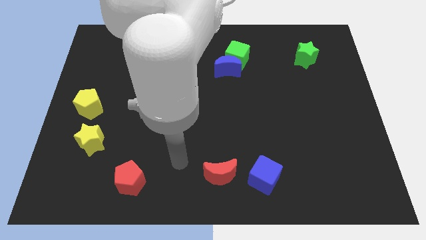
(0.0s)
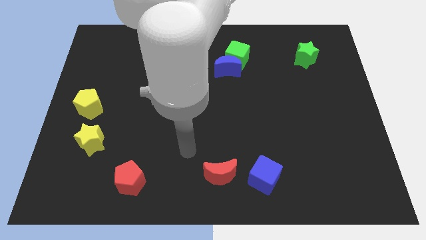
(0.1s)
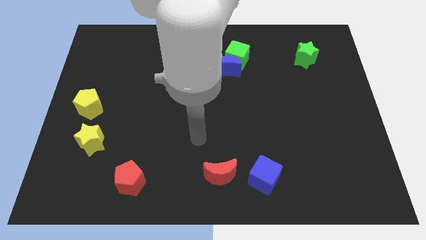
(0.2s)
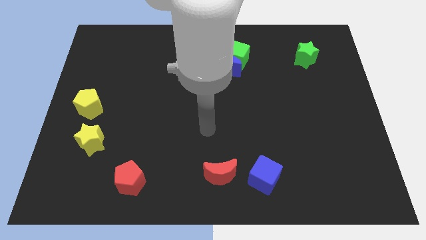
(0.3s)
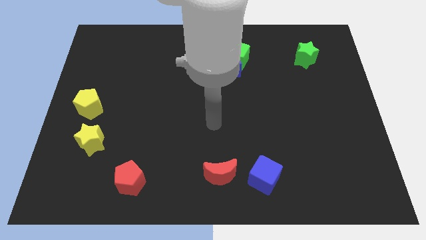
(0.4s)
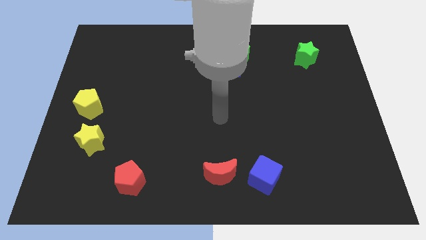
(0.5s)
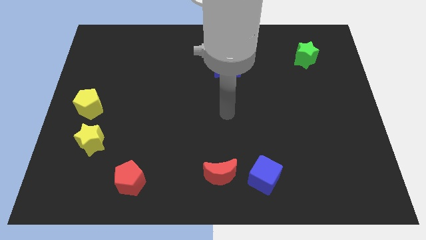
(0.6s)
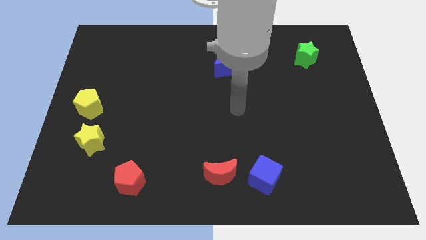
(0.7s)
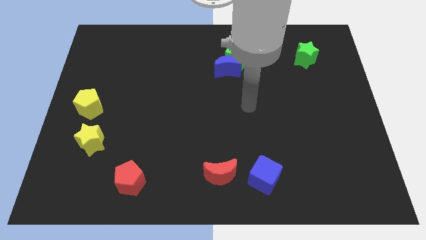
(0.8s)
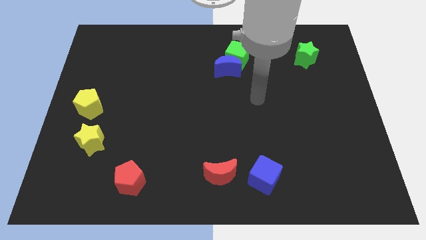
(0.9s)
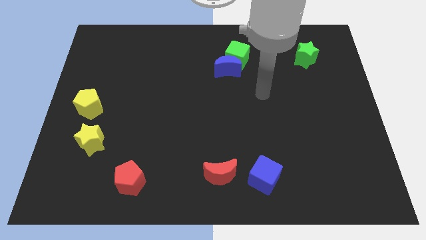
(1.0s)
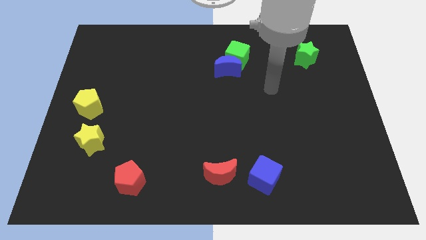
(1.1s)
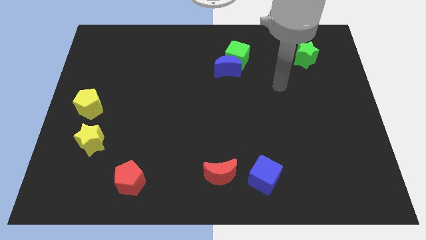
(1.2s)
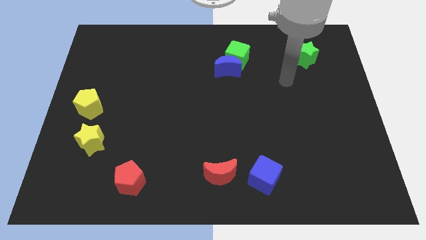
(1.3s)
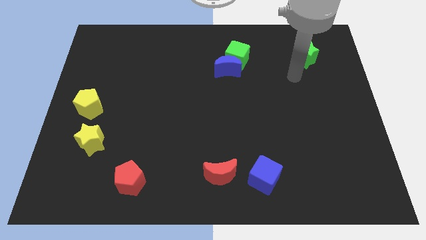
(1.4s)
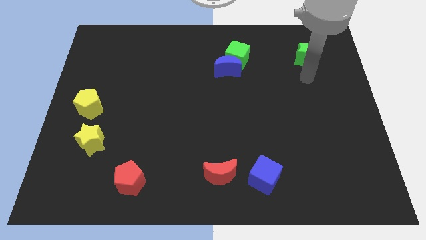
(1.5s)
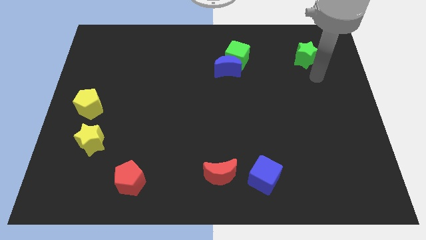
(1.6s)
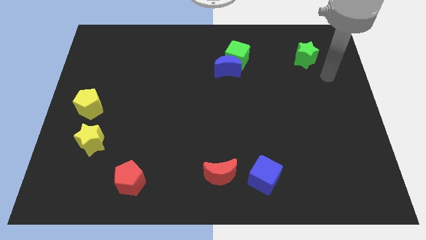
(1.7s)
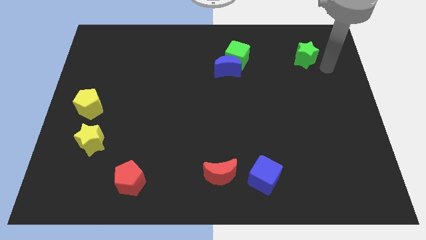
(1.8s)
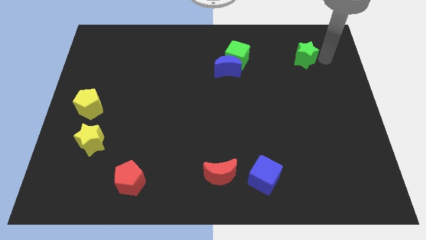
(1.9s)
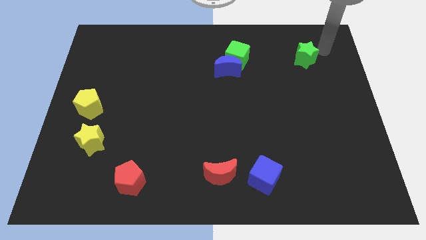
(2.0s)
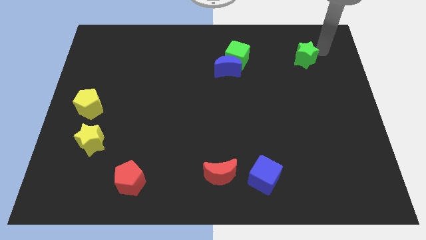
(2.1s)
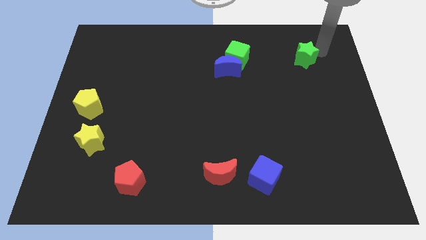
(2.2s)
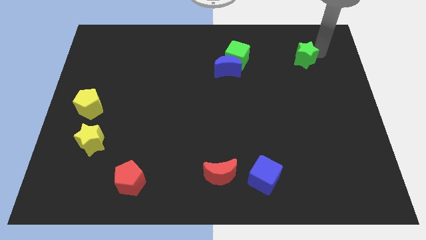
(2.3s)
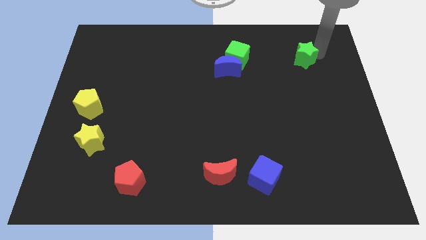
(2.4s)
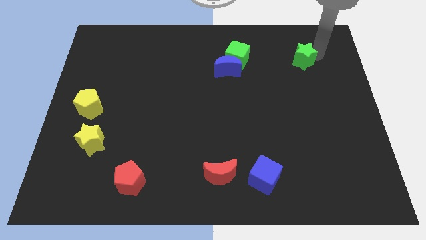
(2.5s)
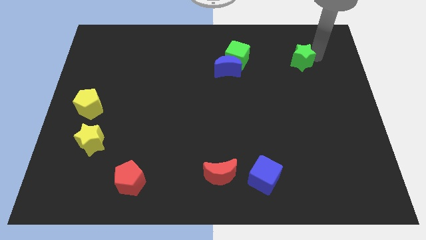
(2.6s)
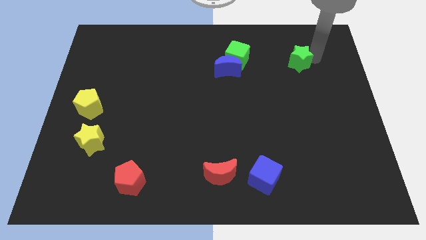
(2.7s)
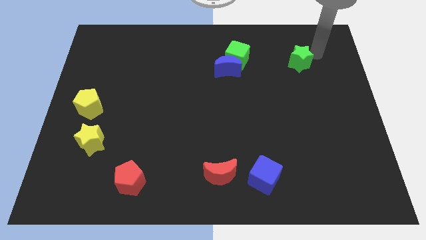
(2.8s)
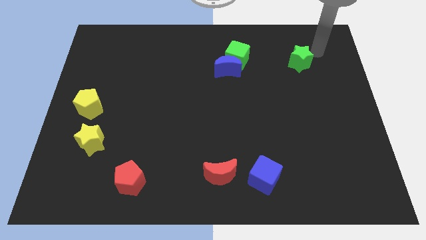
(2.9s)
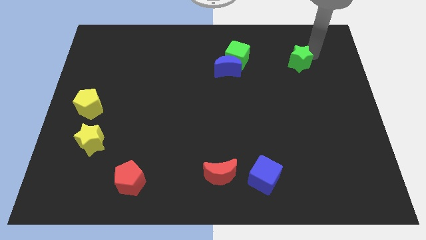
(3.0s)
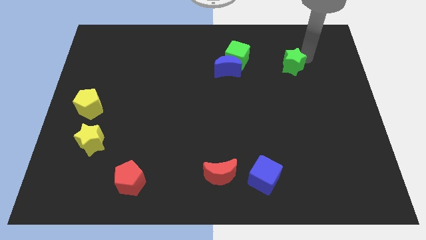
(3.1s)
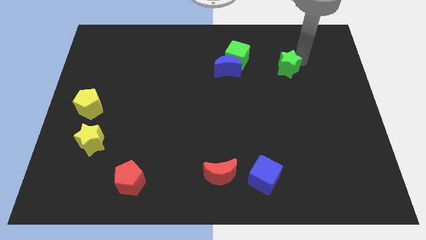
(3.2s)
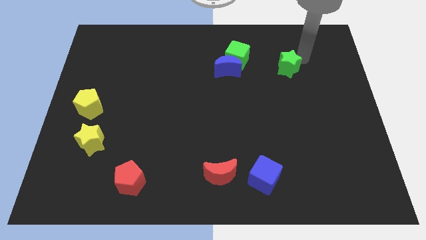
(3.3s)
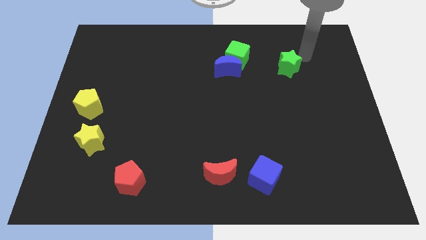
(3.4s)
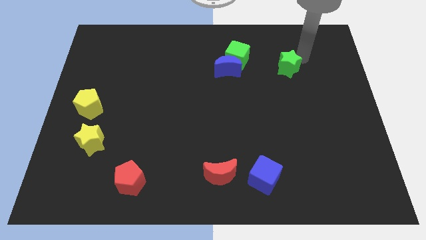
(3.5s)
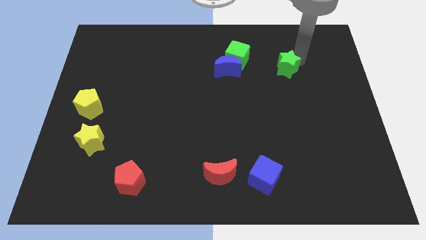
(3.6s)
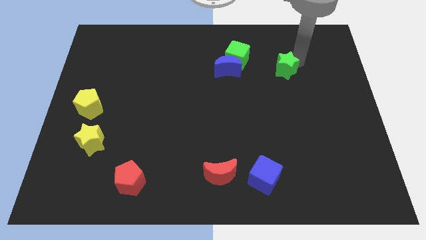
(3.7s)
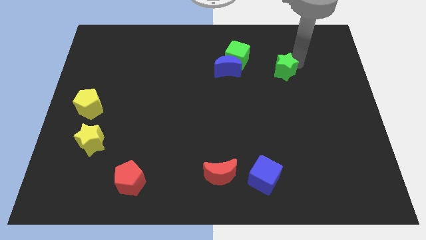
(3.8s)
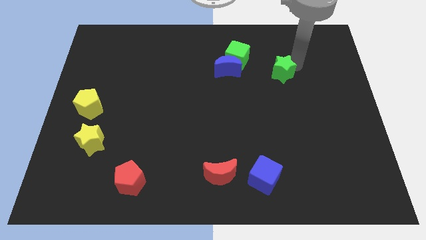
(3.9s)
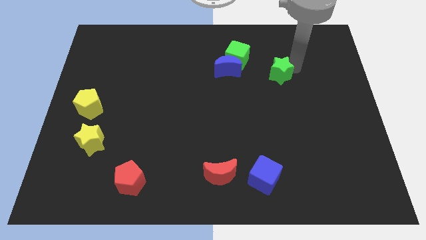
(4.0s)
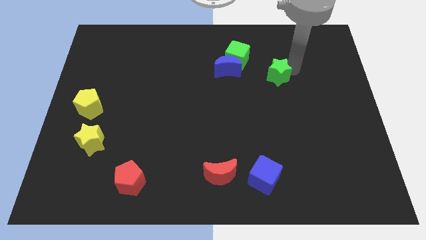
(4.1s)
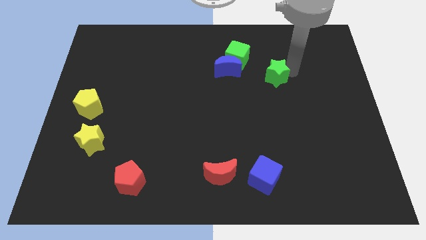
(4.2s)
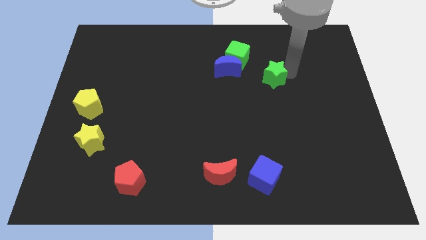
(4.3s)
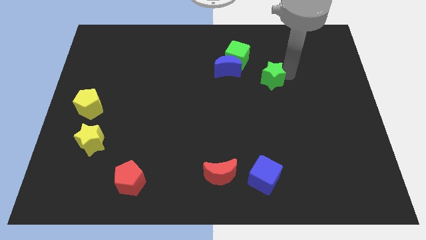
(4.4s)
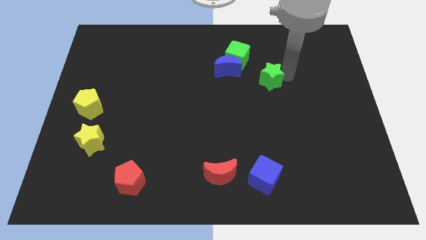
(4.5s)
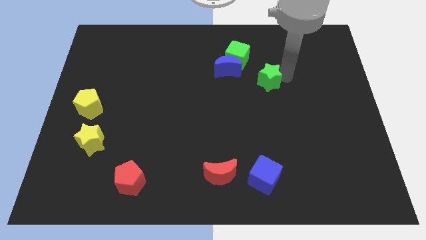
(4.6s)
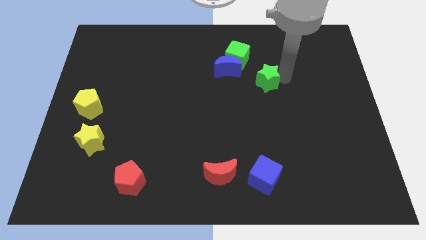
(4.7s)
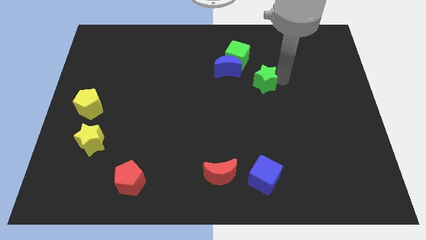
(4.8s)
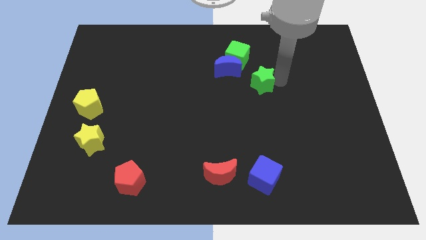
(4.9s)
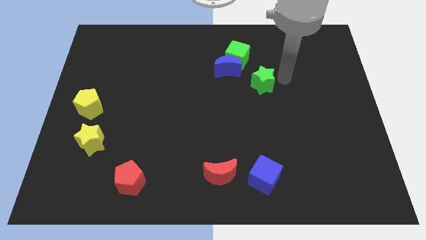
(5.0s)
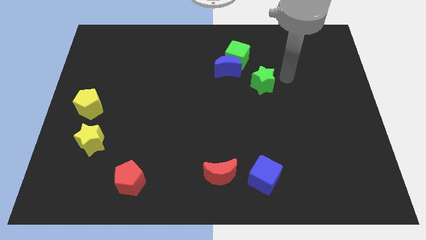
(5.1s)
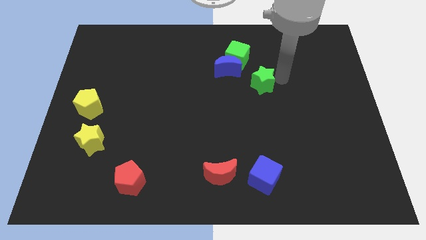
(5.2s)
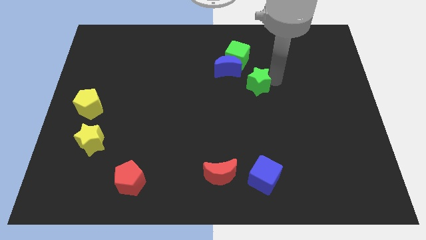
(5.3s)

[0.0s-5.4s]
push the green star below the green cube

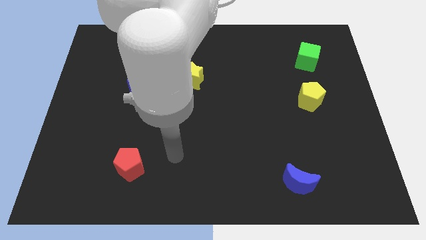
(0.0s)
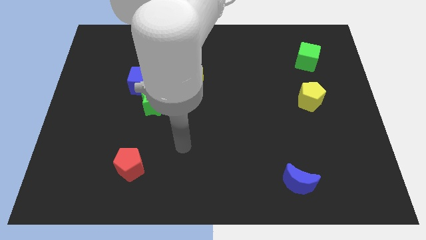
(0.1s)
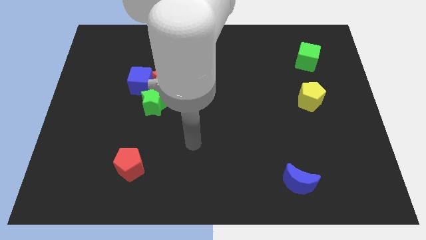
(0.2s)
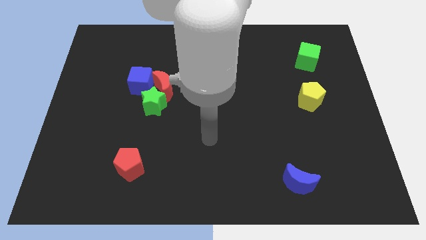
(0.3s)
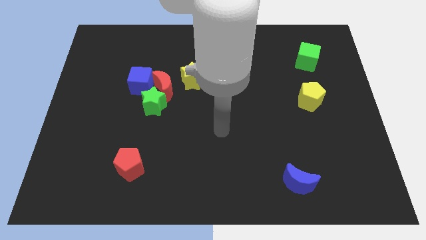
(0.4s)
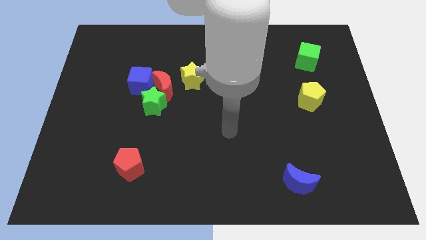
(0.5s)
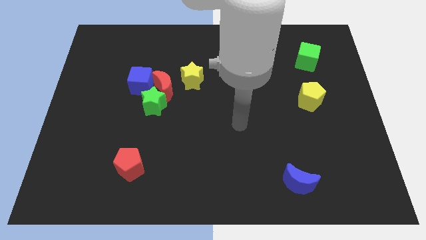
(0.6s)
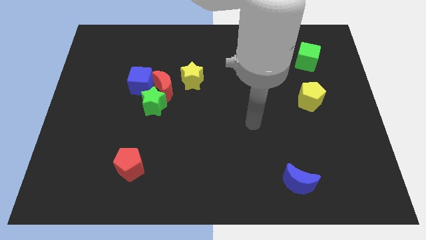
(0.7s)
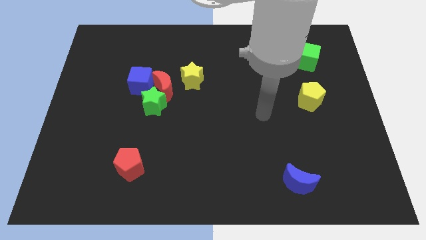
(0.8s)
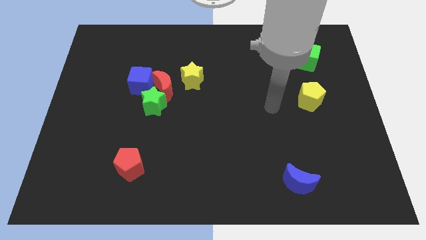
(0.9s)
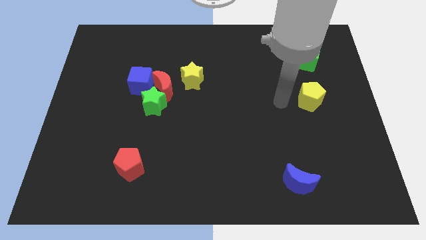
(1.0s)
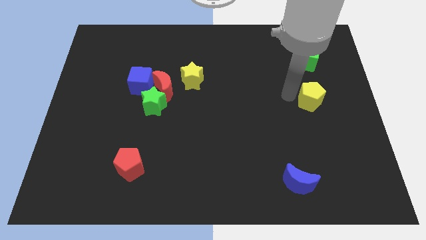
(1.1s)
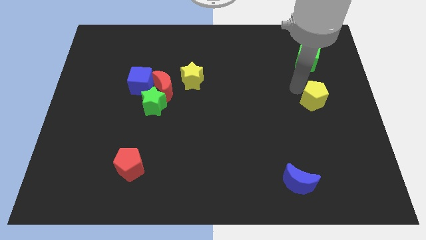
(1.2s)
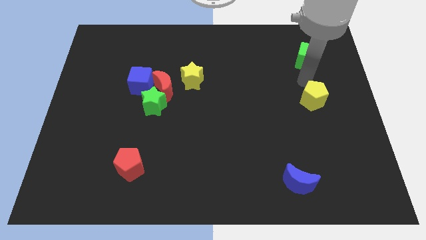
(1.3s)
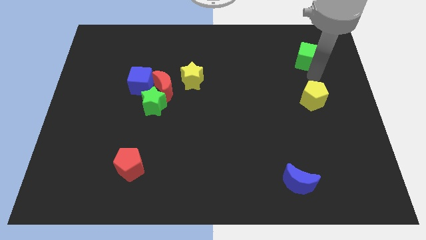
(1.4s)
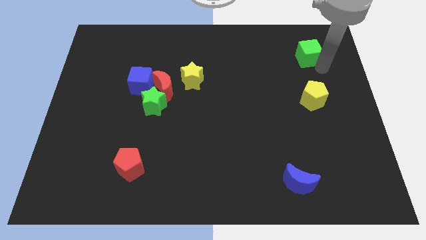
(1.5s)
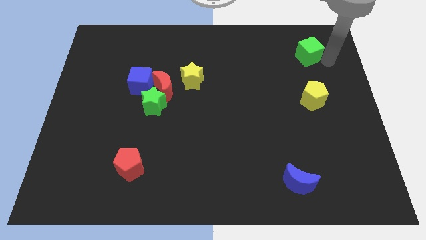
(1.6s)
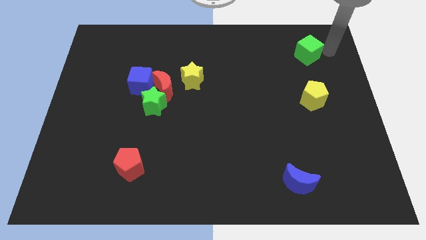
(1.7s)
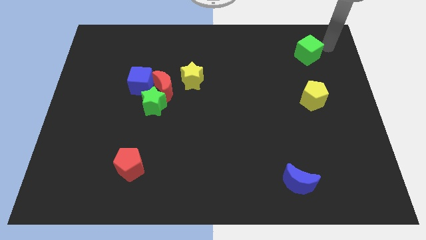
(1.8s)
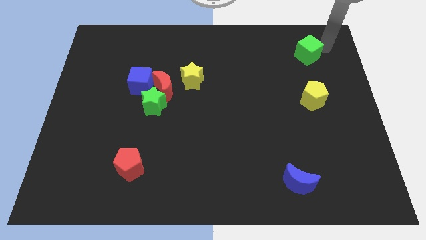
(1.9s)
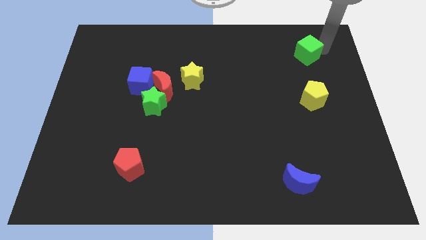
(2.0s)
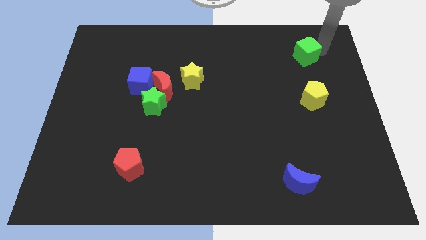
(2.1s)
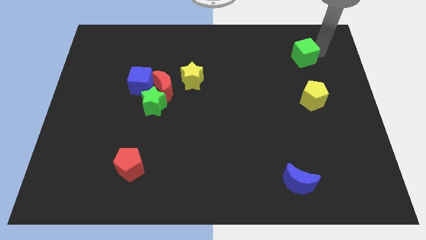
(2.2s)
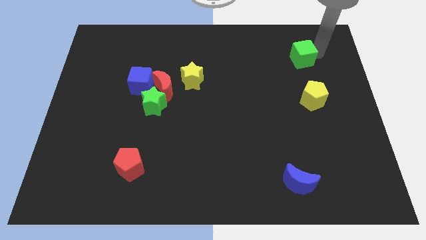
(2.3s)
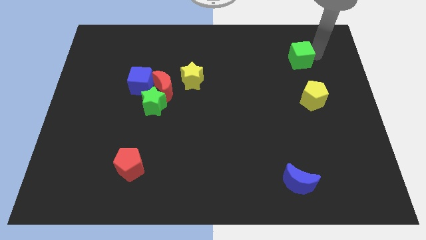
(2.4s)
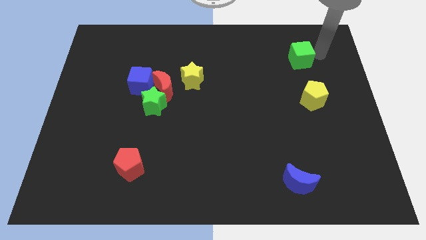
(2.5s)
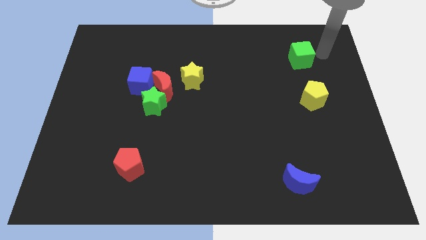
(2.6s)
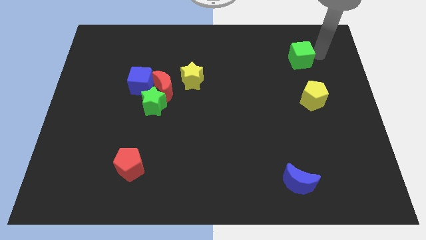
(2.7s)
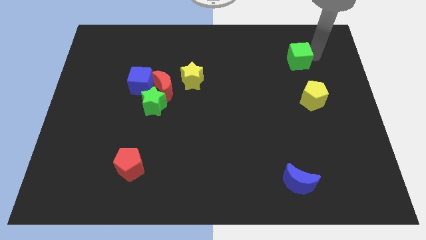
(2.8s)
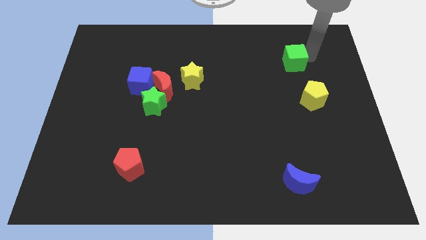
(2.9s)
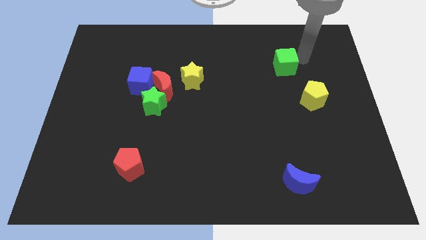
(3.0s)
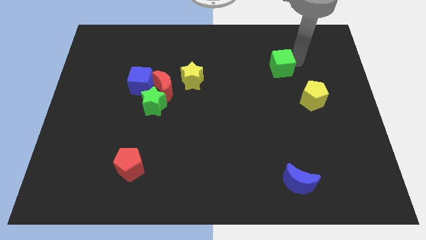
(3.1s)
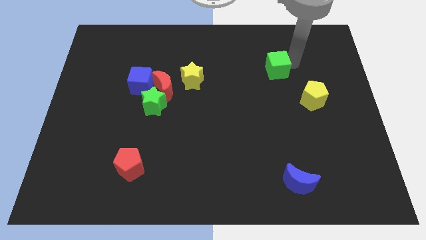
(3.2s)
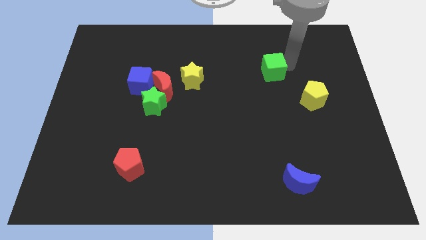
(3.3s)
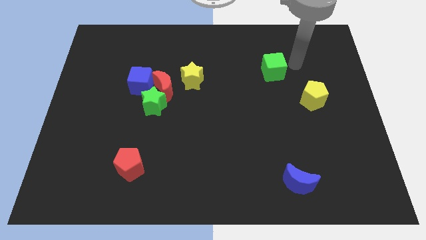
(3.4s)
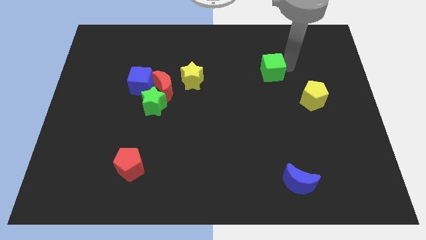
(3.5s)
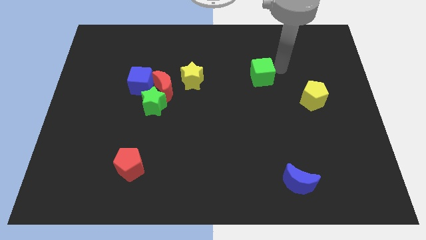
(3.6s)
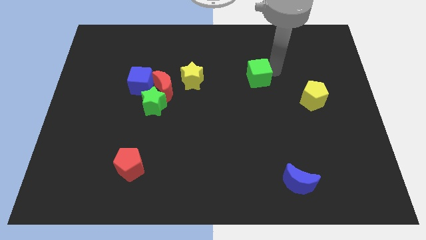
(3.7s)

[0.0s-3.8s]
push the green cube right of the yellow star
